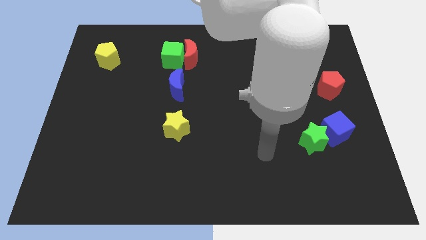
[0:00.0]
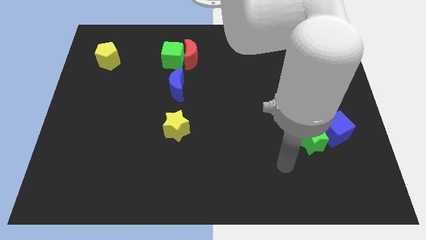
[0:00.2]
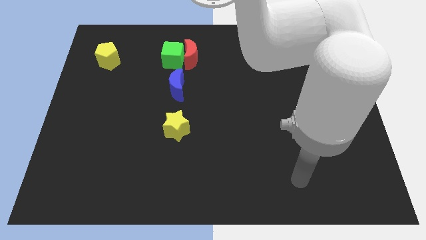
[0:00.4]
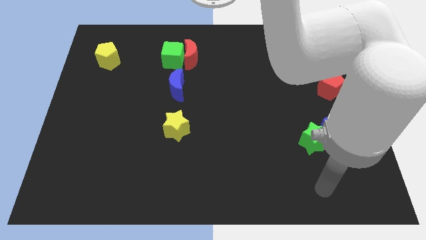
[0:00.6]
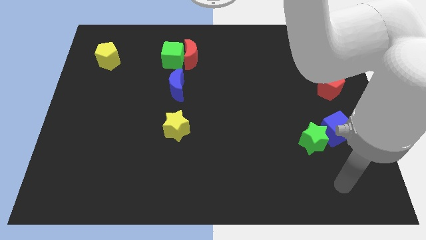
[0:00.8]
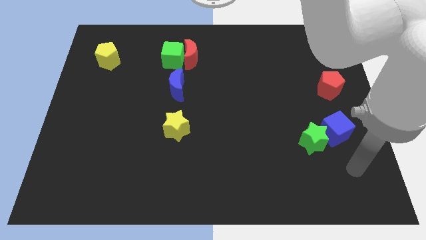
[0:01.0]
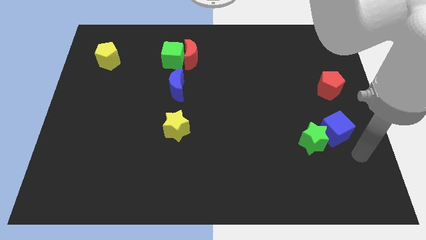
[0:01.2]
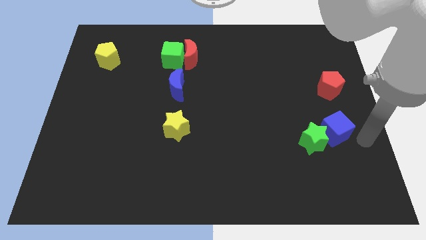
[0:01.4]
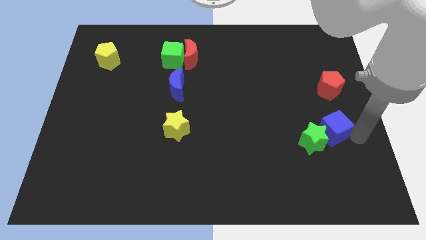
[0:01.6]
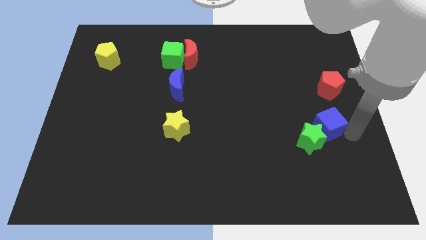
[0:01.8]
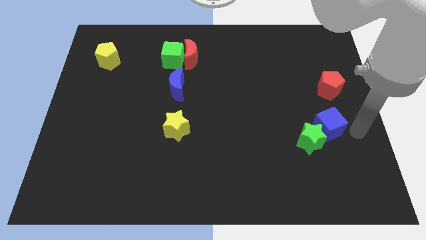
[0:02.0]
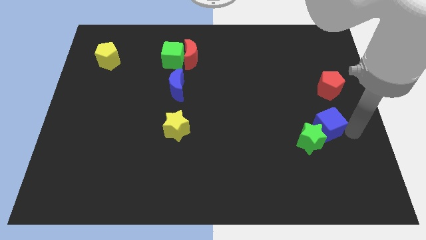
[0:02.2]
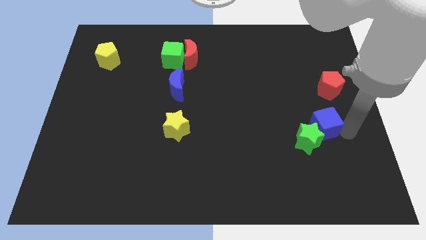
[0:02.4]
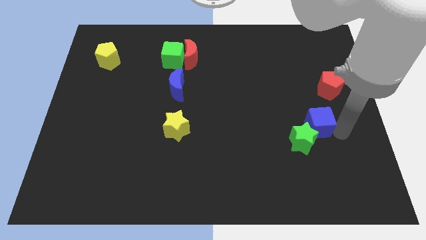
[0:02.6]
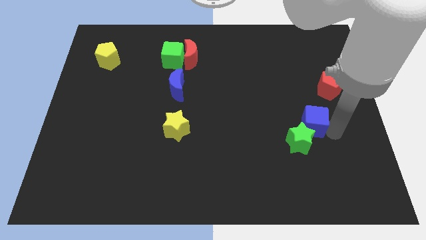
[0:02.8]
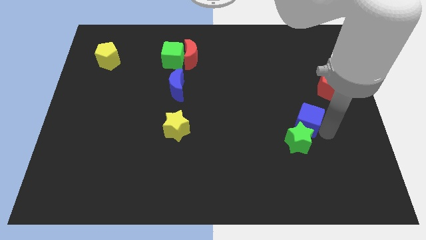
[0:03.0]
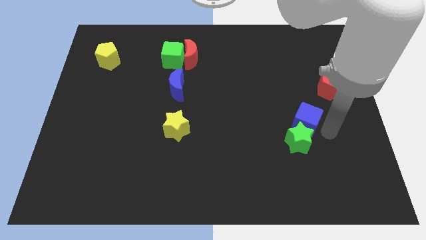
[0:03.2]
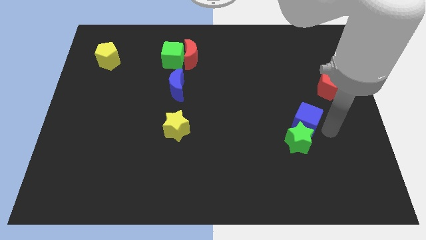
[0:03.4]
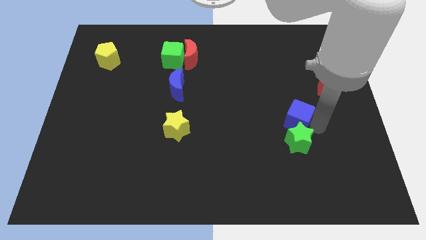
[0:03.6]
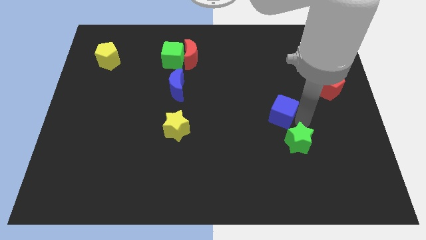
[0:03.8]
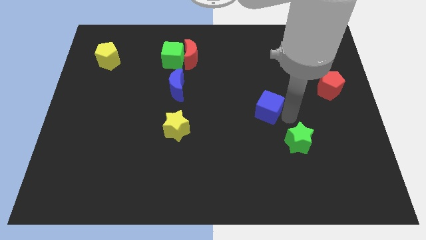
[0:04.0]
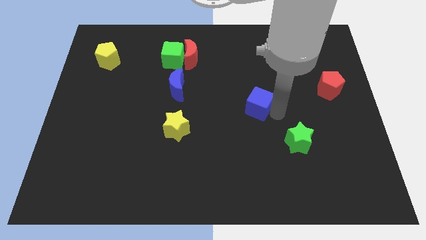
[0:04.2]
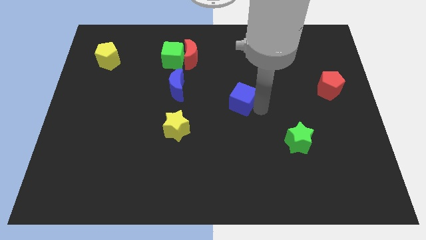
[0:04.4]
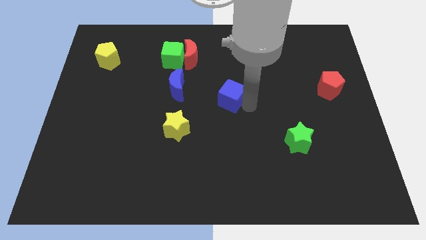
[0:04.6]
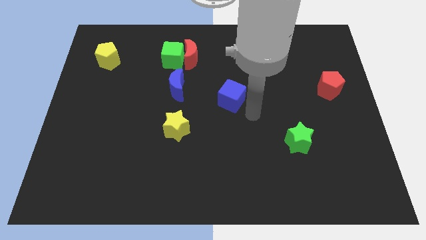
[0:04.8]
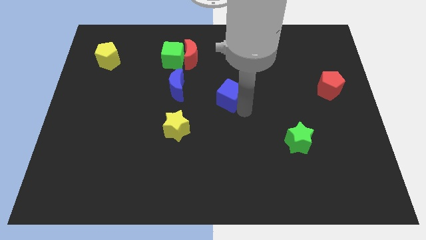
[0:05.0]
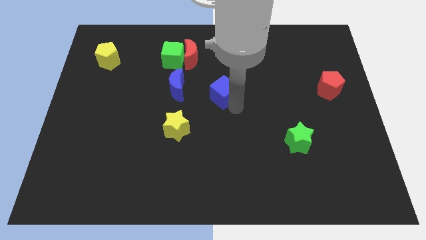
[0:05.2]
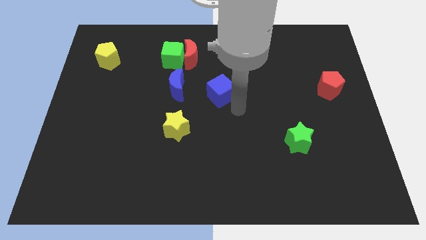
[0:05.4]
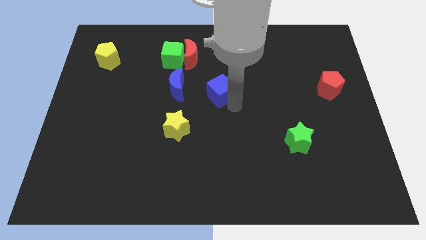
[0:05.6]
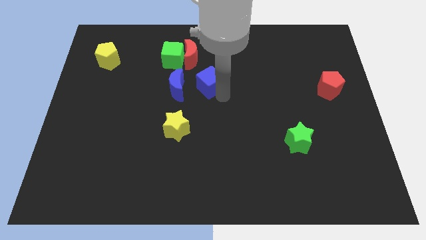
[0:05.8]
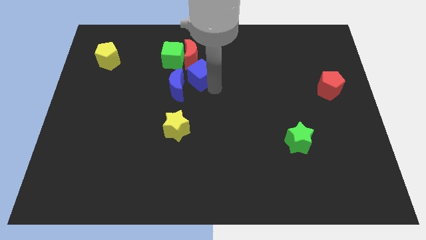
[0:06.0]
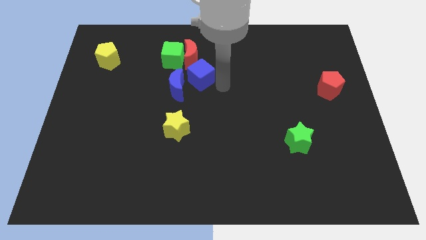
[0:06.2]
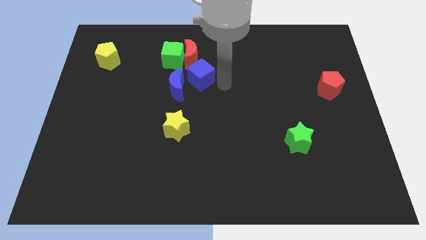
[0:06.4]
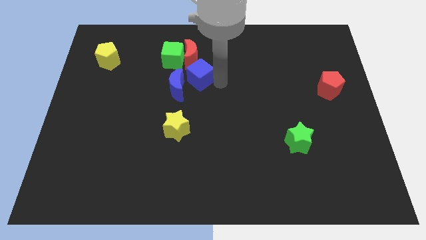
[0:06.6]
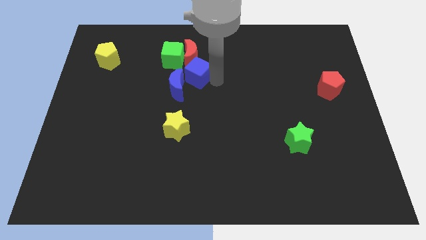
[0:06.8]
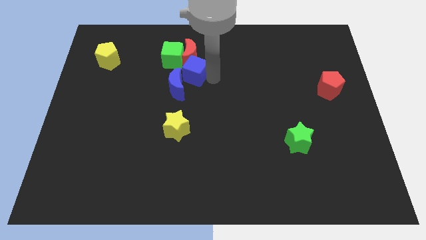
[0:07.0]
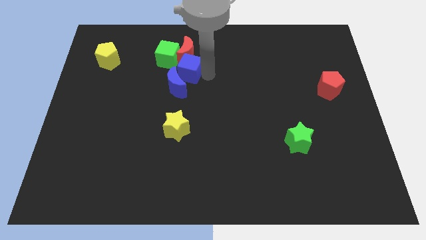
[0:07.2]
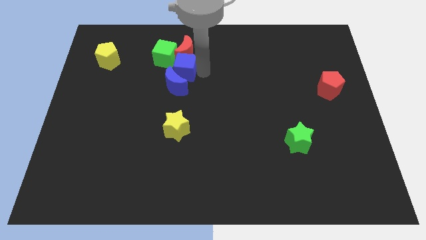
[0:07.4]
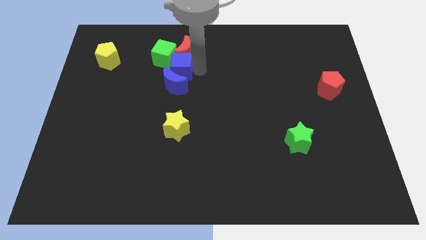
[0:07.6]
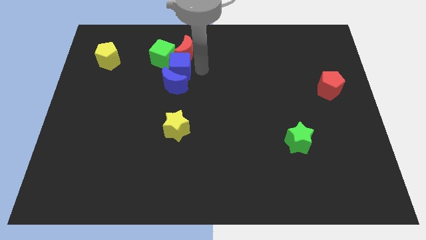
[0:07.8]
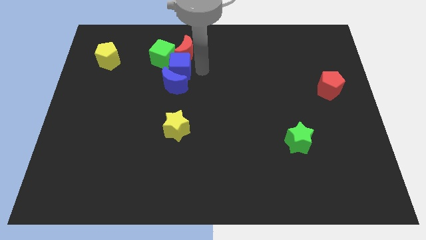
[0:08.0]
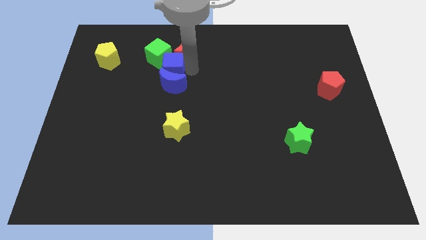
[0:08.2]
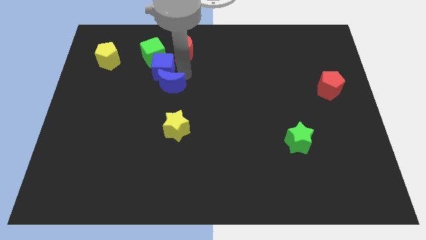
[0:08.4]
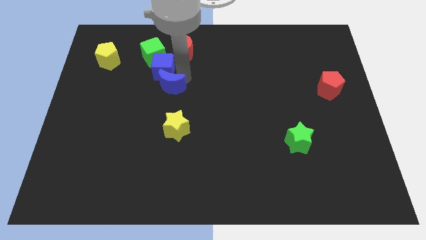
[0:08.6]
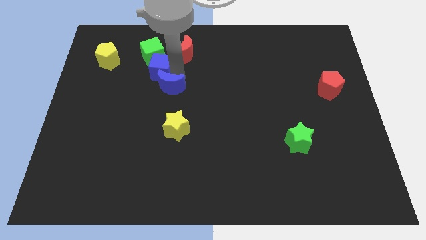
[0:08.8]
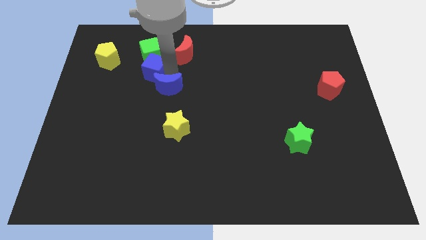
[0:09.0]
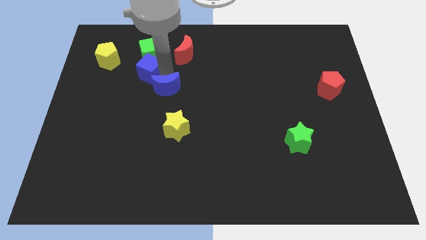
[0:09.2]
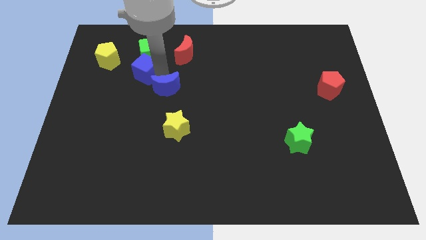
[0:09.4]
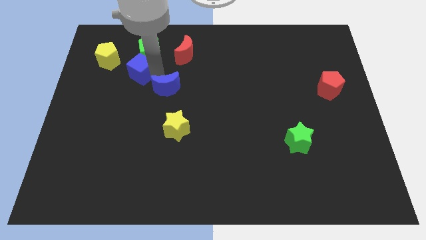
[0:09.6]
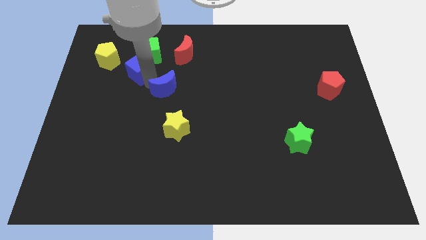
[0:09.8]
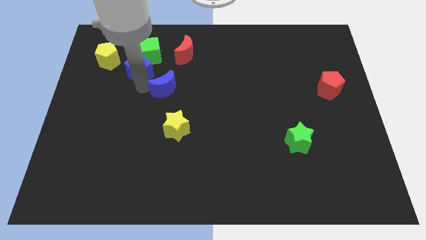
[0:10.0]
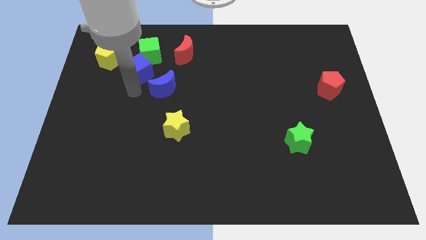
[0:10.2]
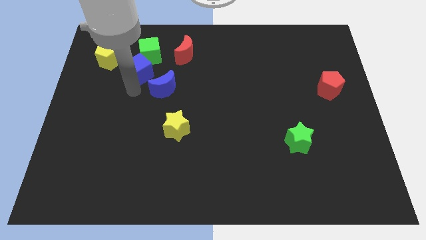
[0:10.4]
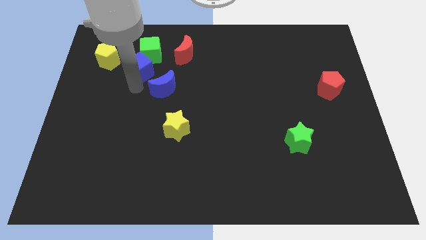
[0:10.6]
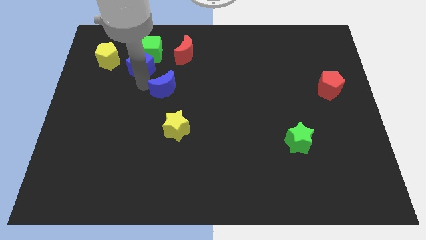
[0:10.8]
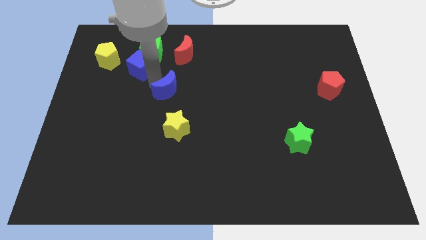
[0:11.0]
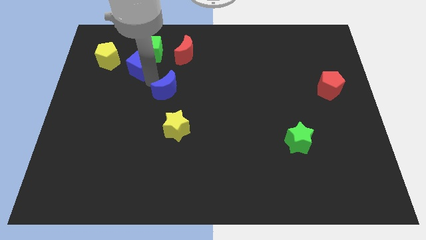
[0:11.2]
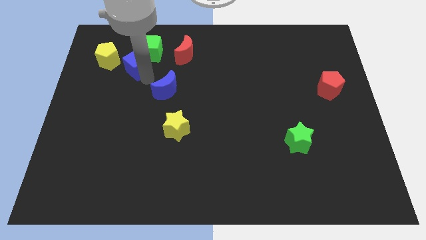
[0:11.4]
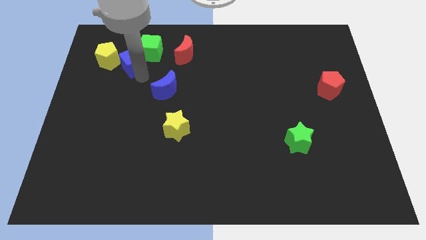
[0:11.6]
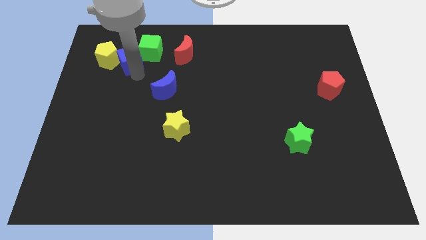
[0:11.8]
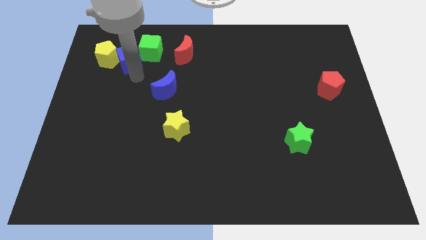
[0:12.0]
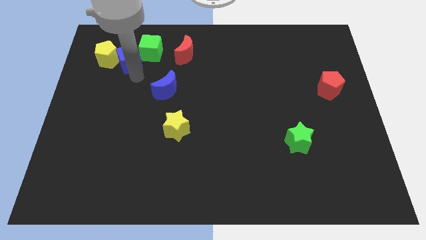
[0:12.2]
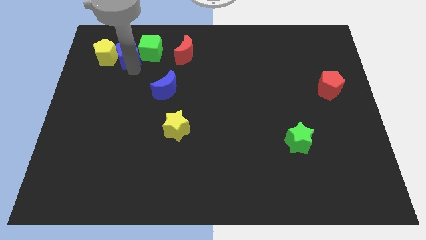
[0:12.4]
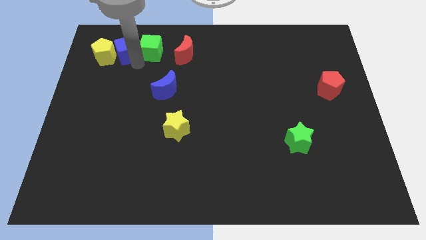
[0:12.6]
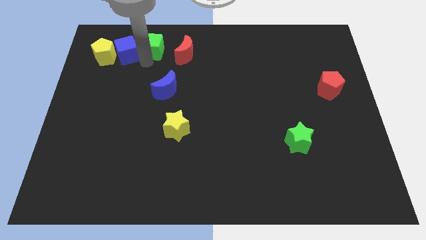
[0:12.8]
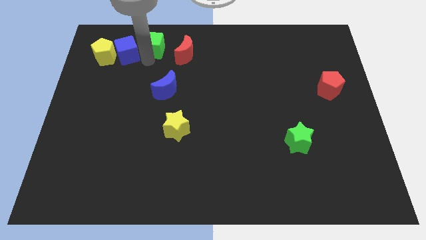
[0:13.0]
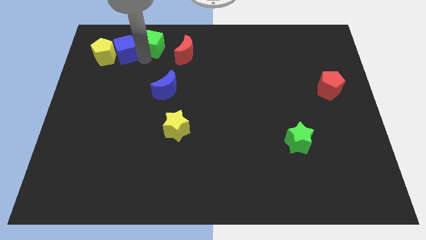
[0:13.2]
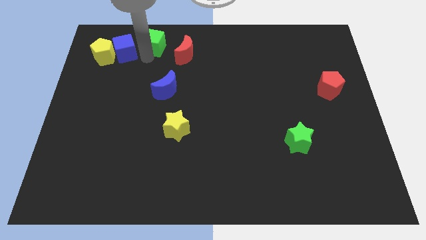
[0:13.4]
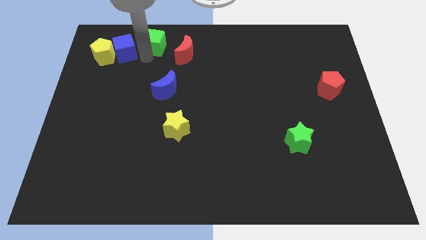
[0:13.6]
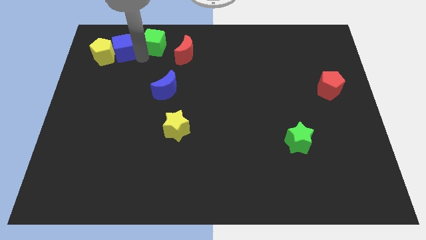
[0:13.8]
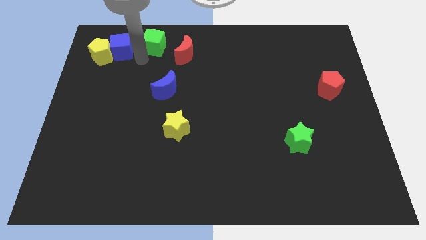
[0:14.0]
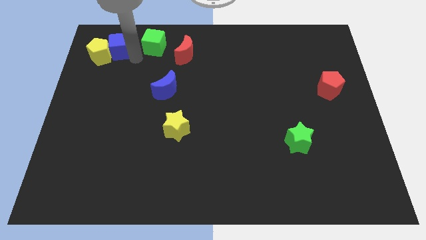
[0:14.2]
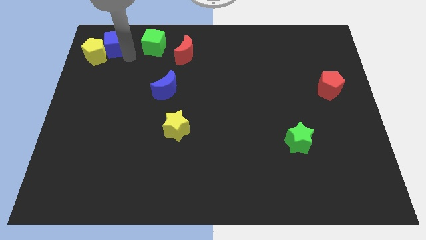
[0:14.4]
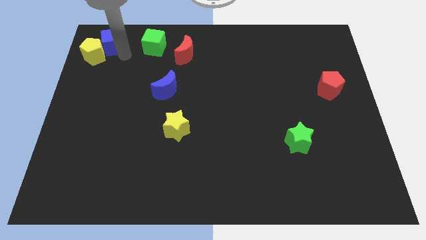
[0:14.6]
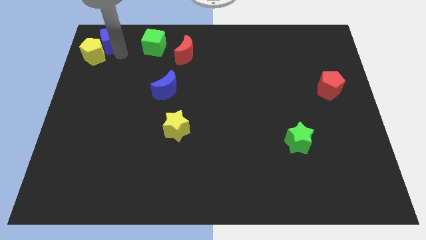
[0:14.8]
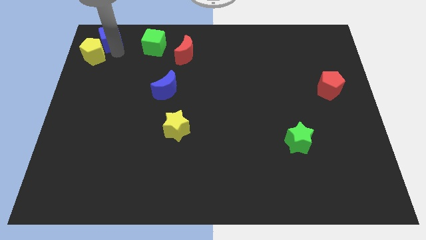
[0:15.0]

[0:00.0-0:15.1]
put the blue cube to the upper left corner

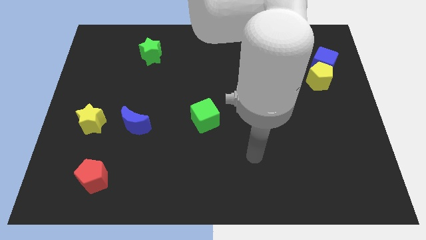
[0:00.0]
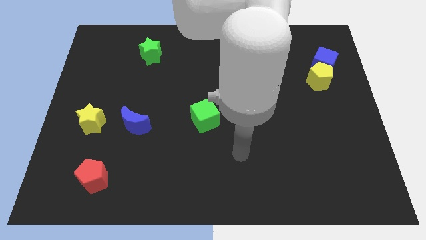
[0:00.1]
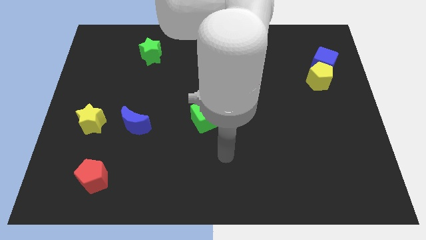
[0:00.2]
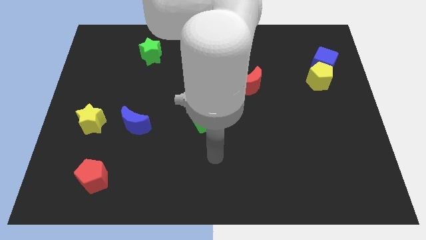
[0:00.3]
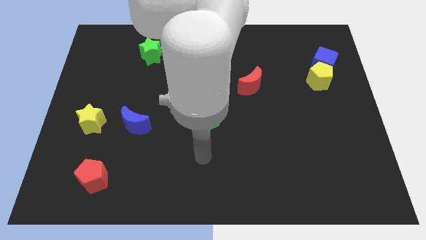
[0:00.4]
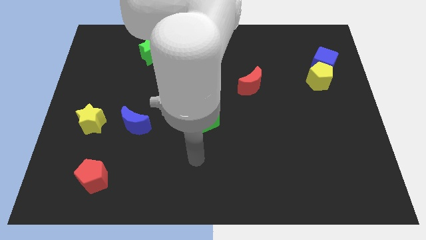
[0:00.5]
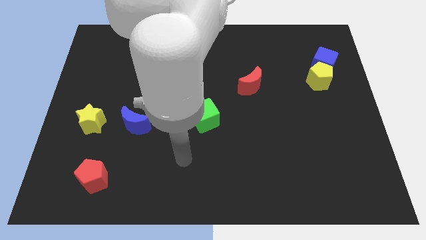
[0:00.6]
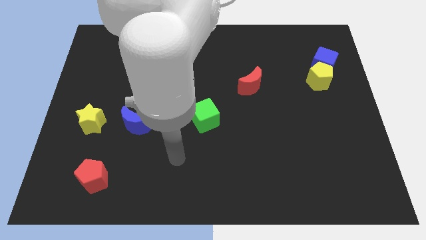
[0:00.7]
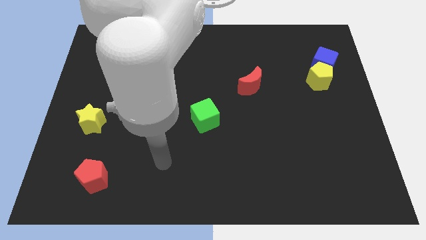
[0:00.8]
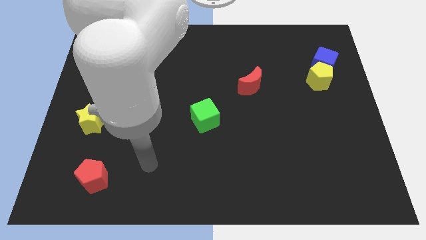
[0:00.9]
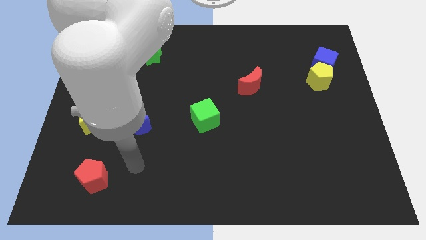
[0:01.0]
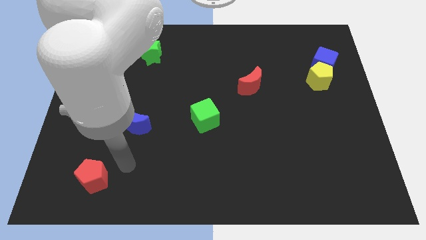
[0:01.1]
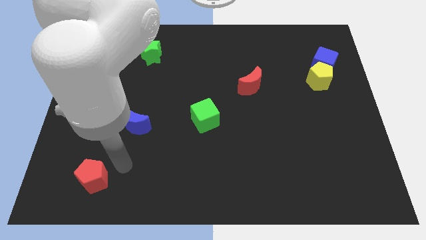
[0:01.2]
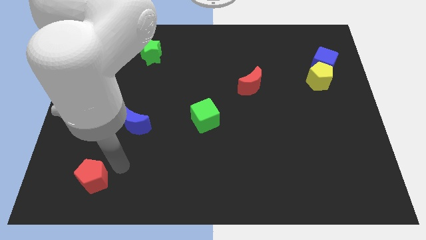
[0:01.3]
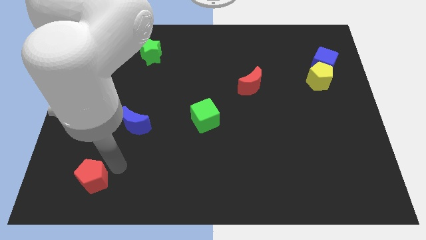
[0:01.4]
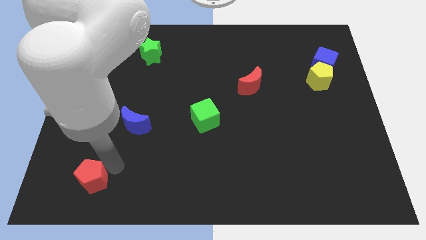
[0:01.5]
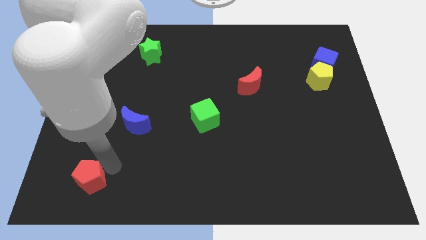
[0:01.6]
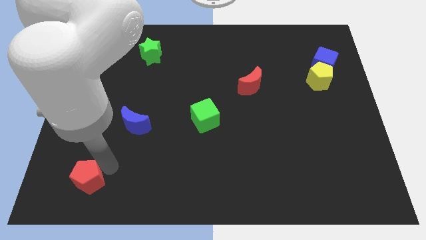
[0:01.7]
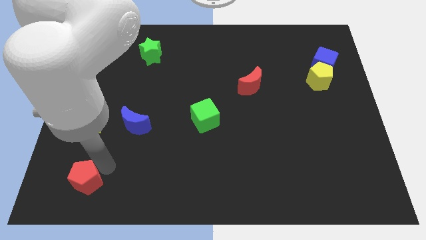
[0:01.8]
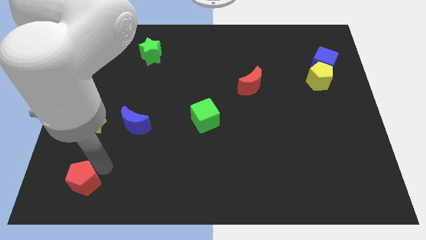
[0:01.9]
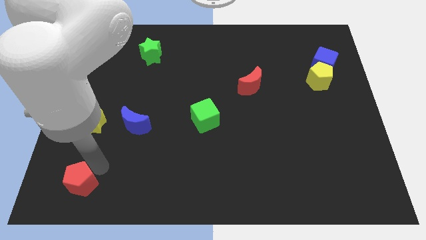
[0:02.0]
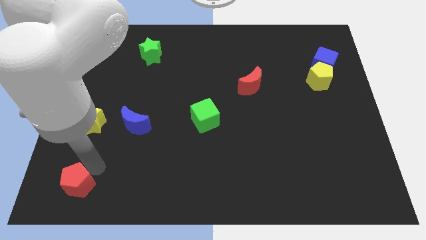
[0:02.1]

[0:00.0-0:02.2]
move the red pentagon to the lower left corner
